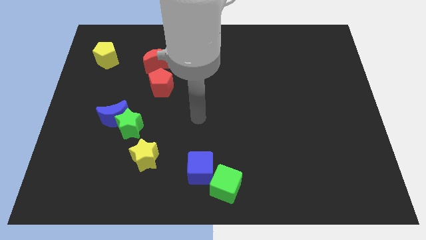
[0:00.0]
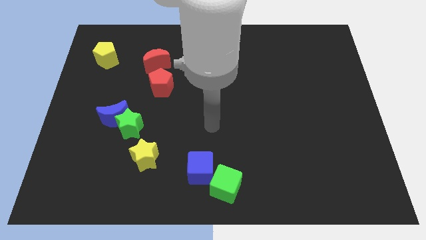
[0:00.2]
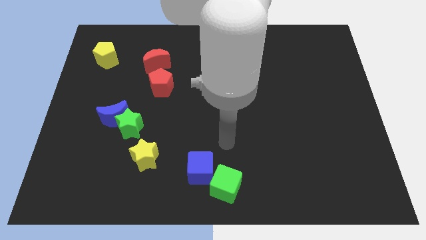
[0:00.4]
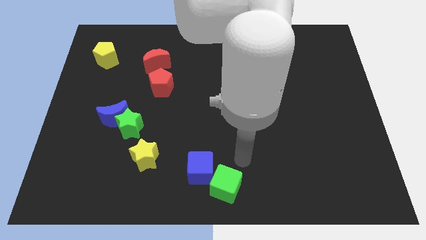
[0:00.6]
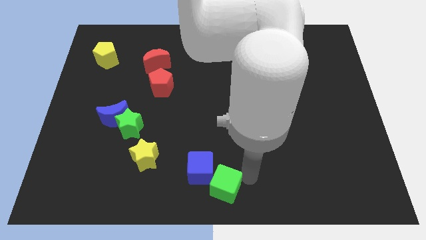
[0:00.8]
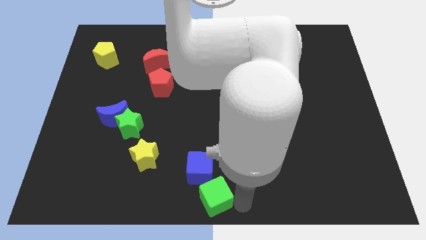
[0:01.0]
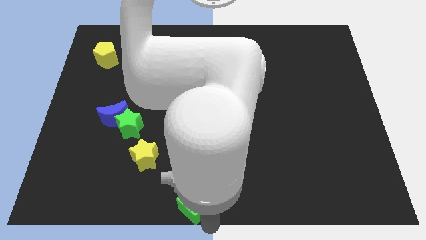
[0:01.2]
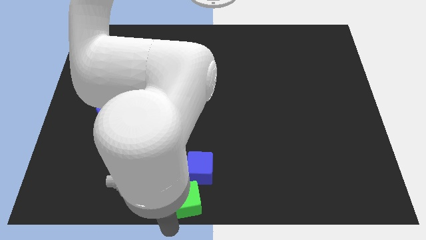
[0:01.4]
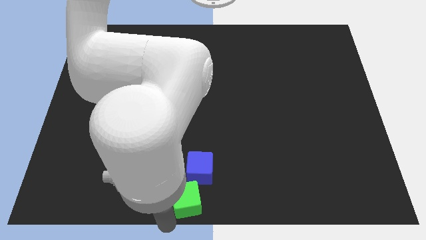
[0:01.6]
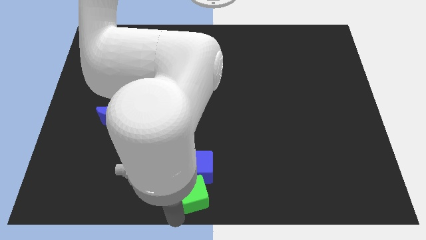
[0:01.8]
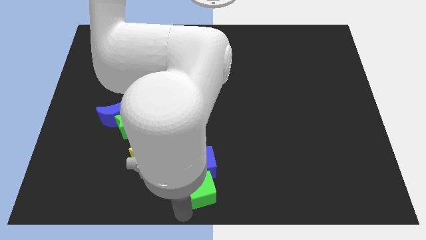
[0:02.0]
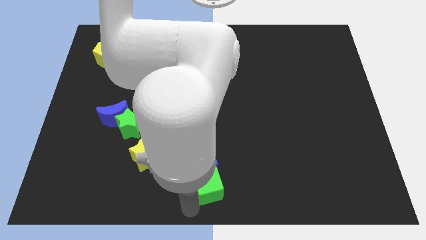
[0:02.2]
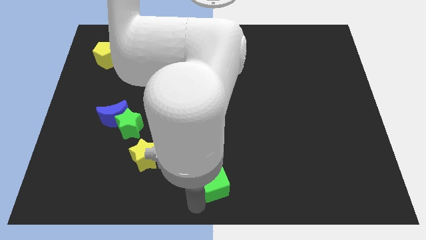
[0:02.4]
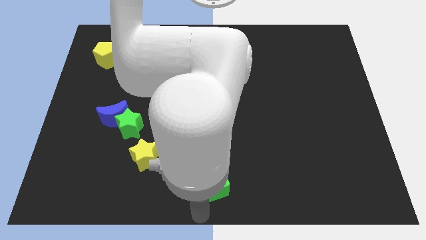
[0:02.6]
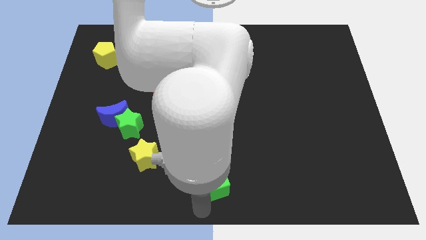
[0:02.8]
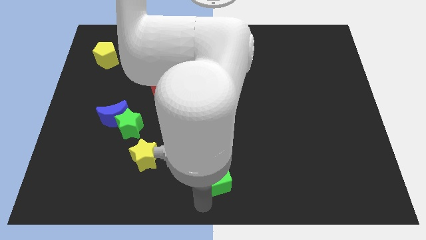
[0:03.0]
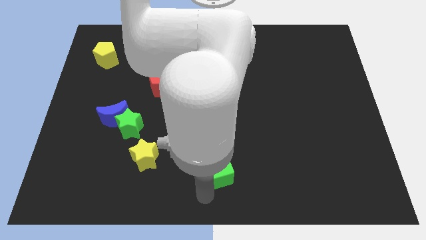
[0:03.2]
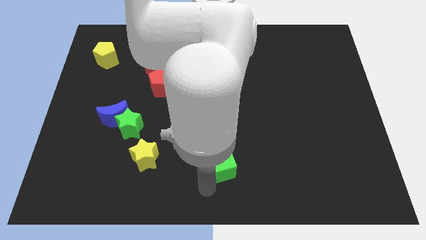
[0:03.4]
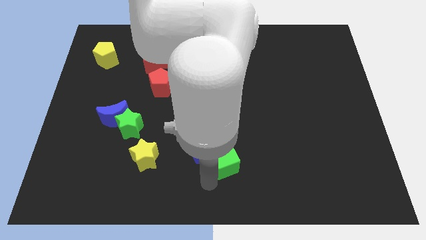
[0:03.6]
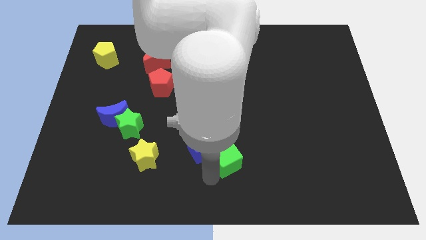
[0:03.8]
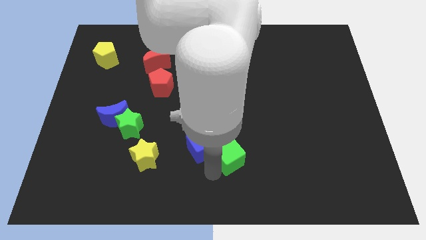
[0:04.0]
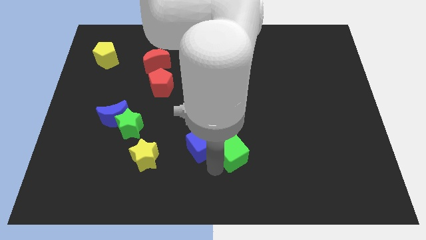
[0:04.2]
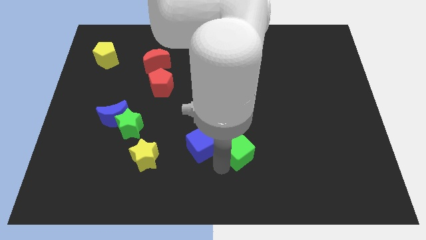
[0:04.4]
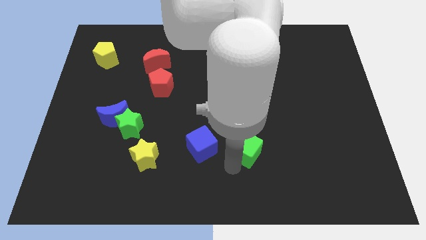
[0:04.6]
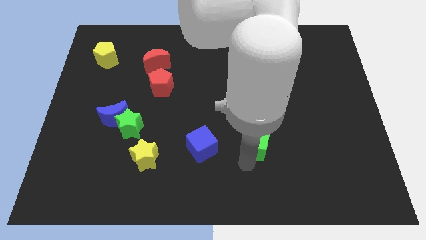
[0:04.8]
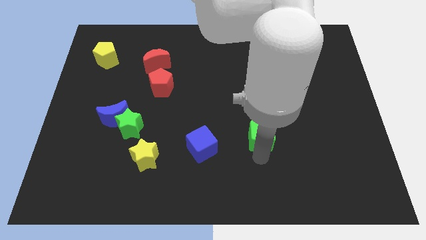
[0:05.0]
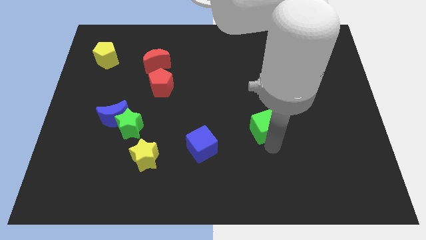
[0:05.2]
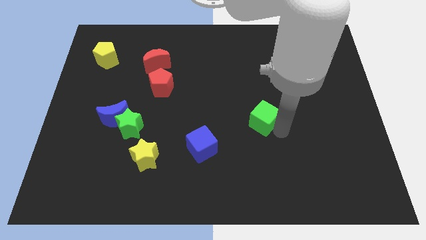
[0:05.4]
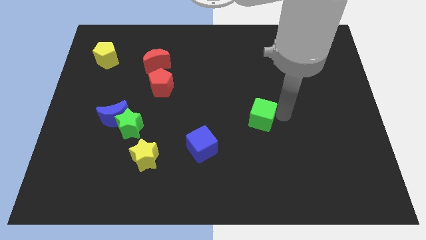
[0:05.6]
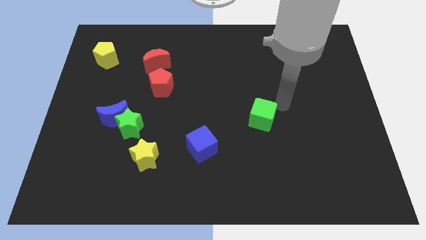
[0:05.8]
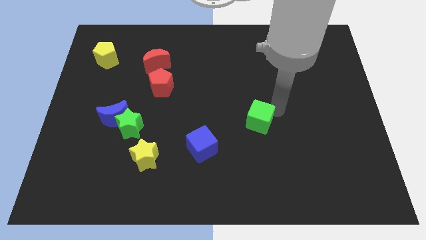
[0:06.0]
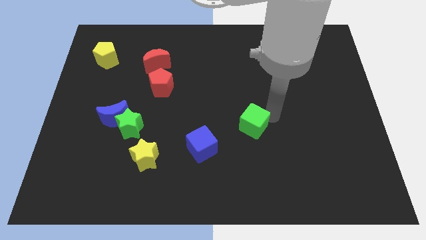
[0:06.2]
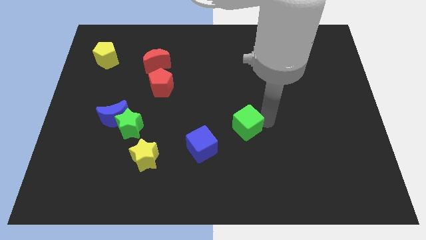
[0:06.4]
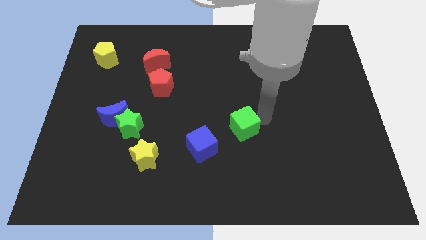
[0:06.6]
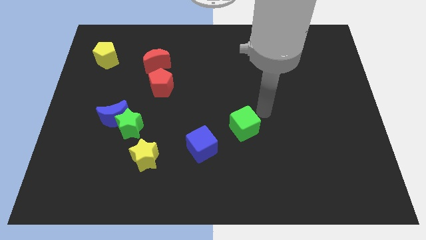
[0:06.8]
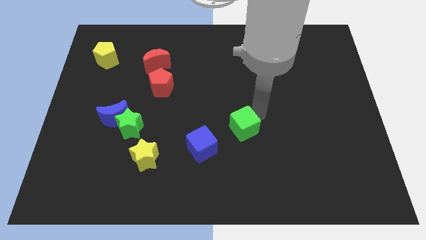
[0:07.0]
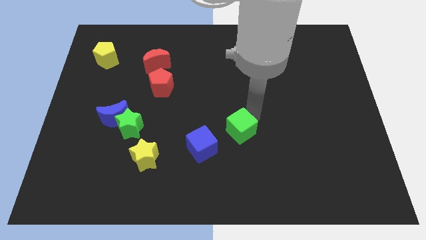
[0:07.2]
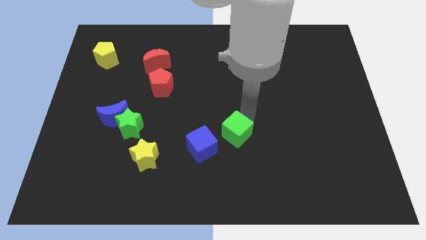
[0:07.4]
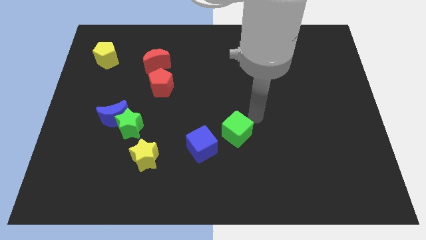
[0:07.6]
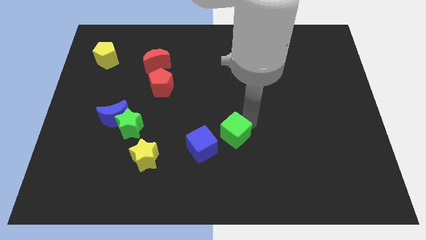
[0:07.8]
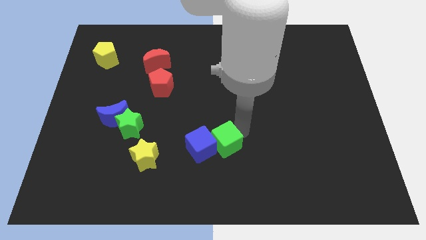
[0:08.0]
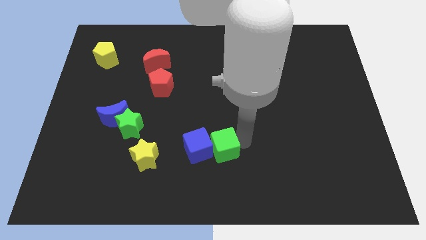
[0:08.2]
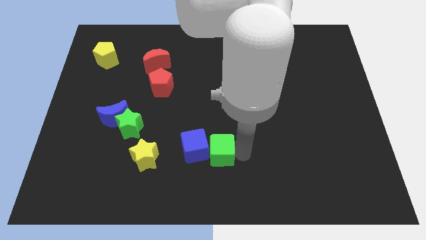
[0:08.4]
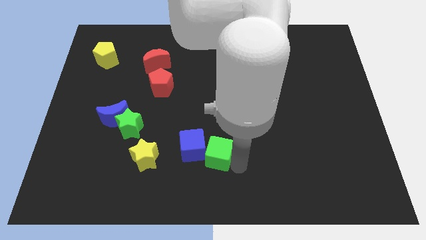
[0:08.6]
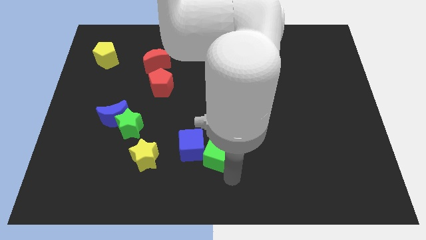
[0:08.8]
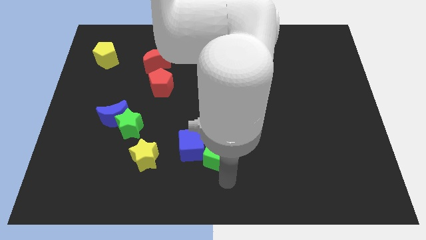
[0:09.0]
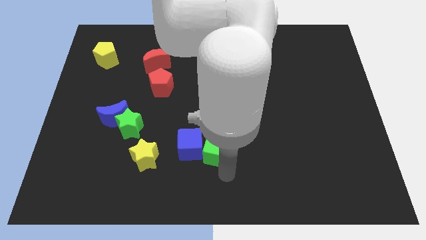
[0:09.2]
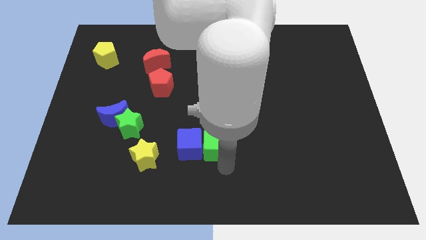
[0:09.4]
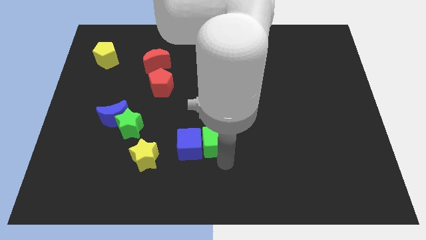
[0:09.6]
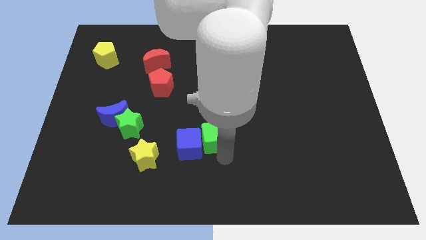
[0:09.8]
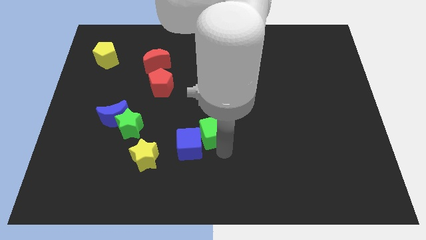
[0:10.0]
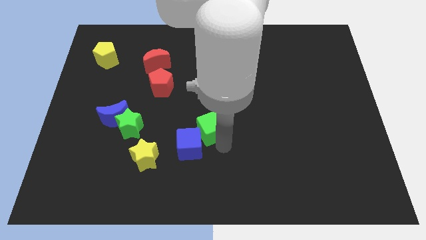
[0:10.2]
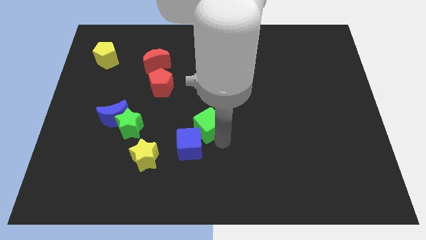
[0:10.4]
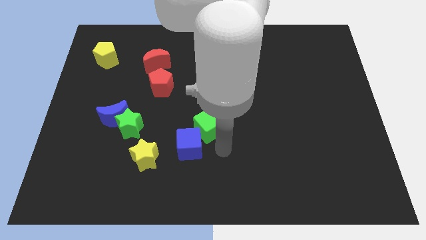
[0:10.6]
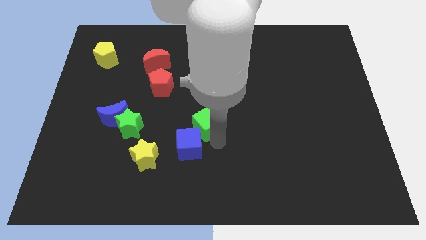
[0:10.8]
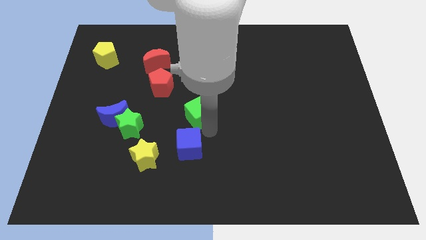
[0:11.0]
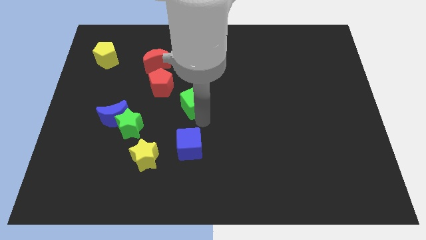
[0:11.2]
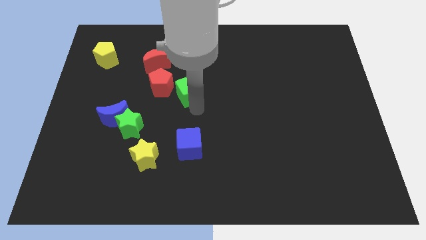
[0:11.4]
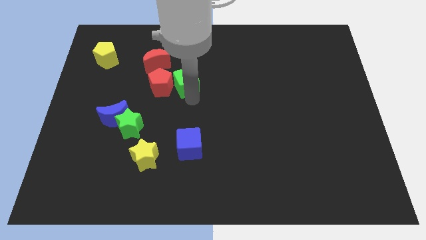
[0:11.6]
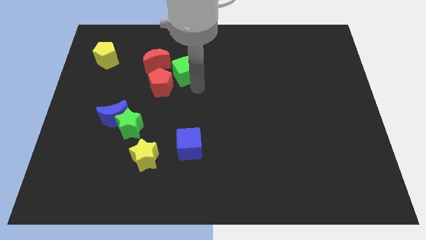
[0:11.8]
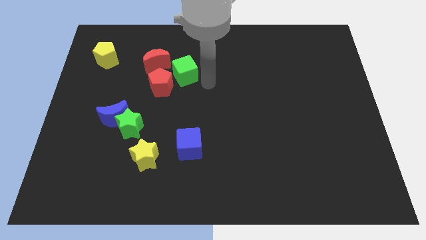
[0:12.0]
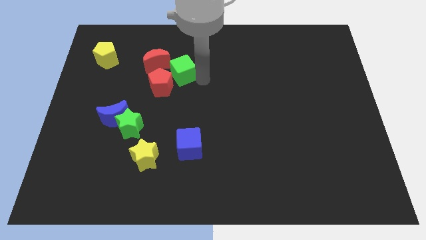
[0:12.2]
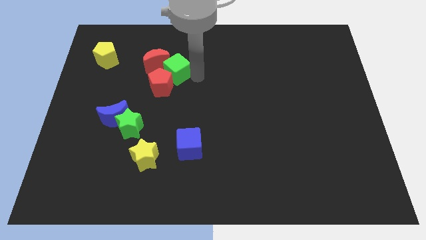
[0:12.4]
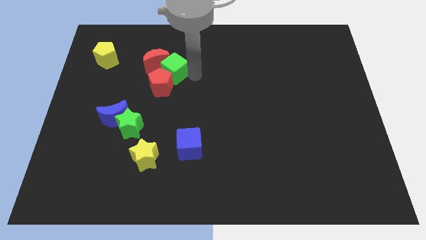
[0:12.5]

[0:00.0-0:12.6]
put the green cube towards the red moon

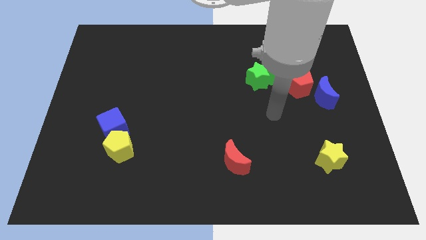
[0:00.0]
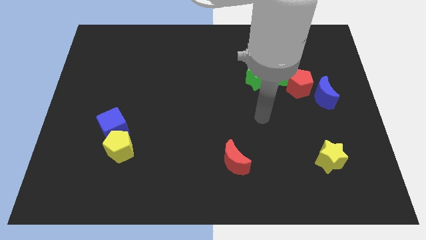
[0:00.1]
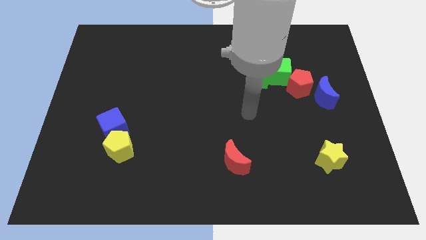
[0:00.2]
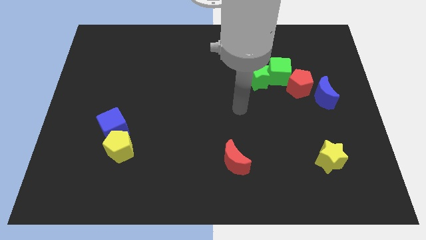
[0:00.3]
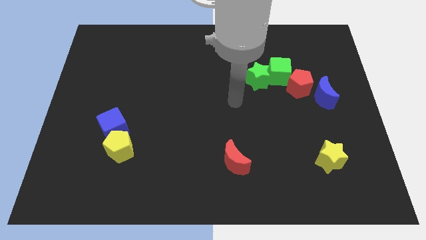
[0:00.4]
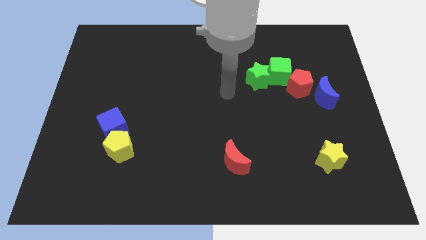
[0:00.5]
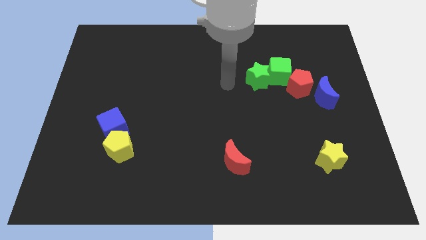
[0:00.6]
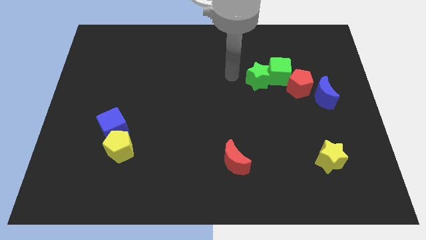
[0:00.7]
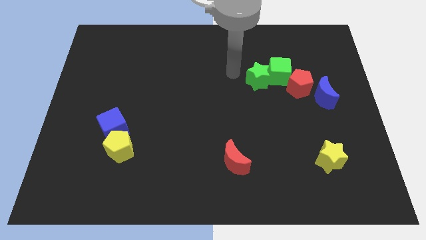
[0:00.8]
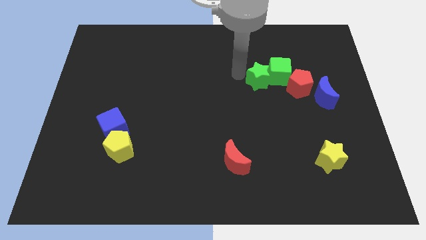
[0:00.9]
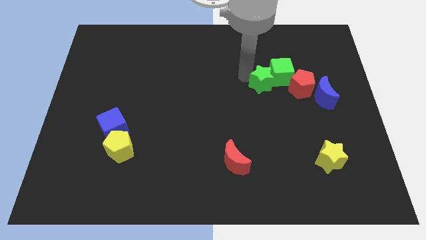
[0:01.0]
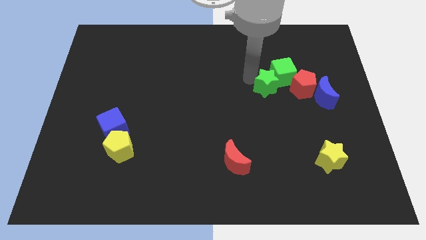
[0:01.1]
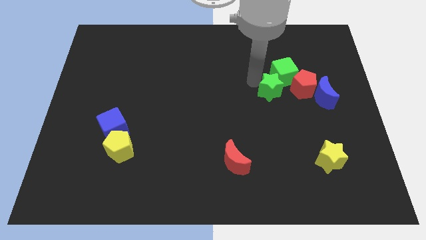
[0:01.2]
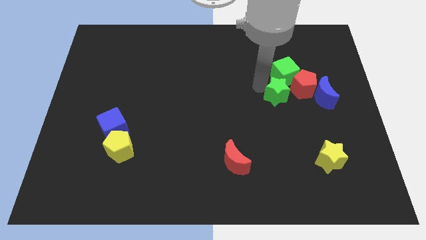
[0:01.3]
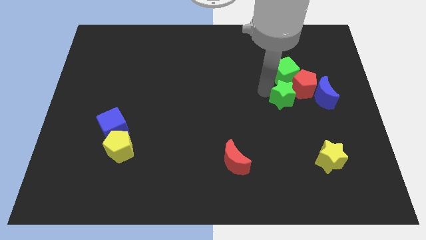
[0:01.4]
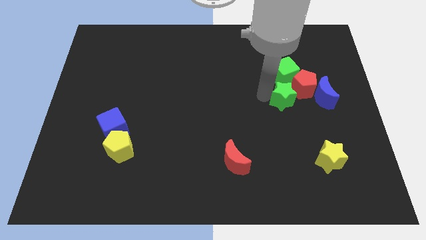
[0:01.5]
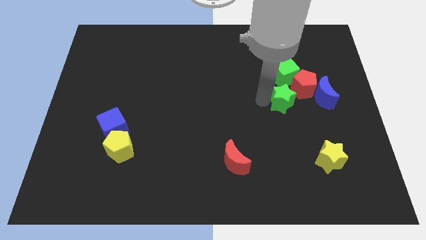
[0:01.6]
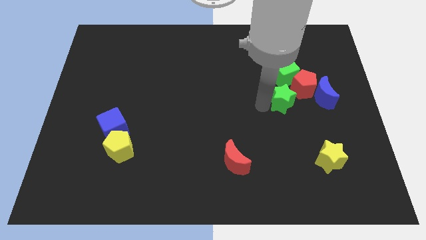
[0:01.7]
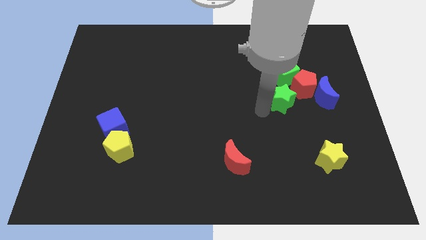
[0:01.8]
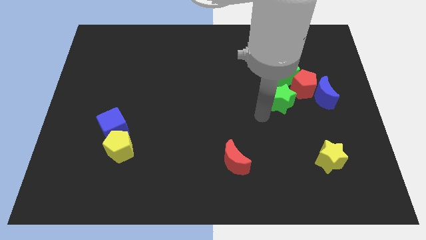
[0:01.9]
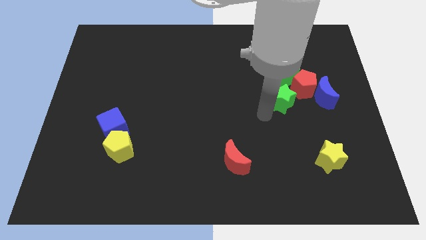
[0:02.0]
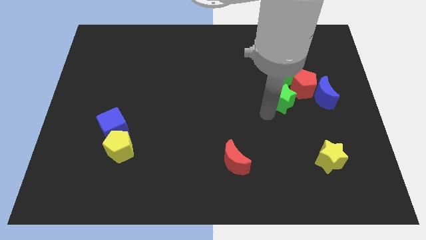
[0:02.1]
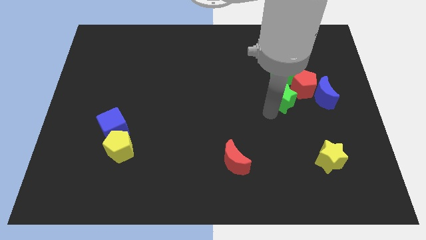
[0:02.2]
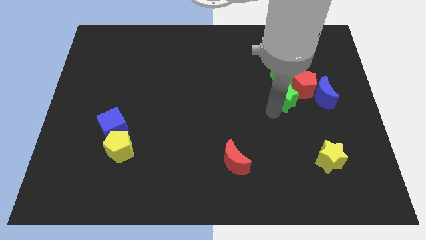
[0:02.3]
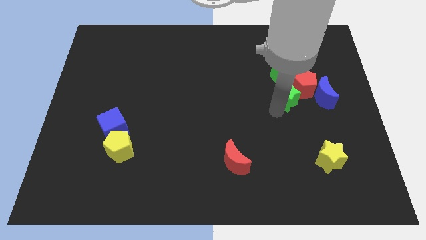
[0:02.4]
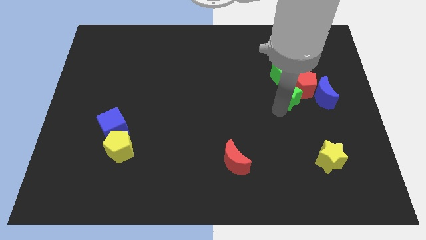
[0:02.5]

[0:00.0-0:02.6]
push the green star to the red pentagon
